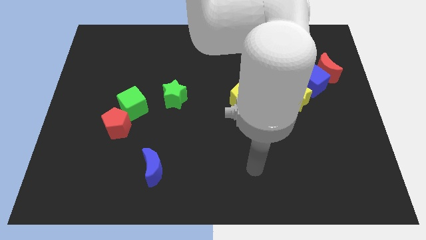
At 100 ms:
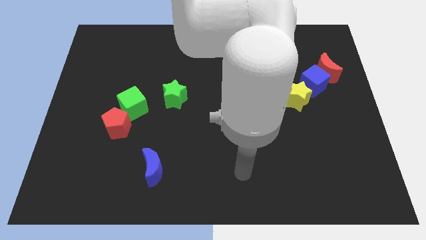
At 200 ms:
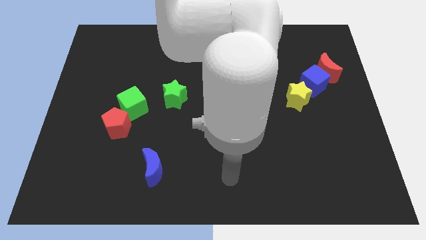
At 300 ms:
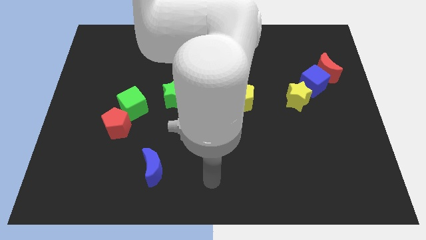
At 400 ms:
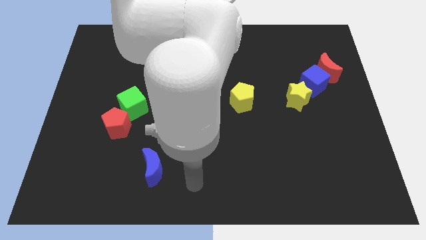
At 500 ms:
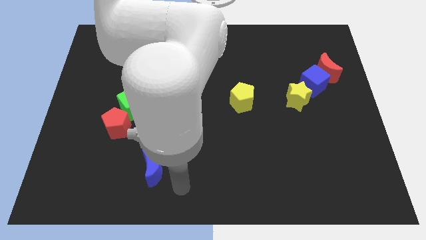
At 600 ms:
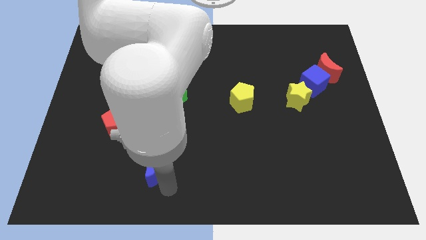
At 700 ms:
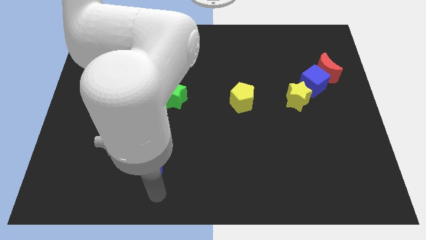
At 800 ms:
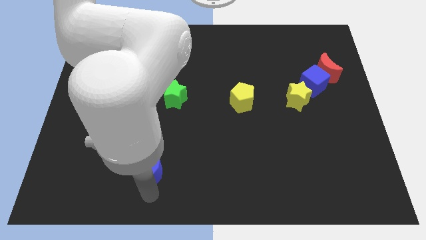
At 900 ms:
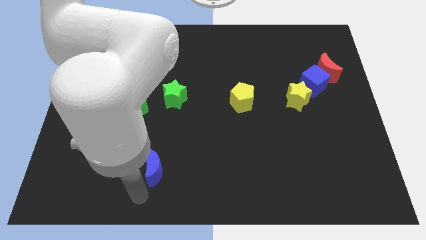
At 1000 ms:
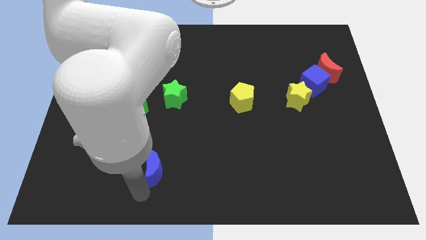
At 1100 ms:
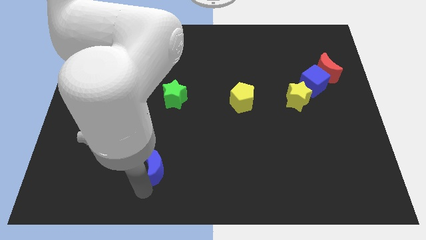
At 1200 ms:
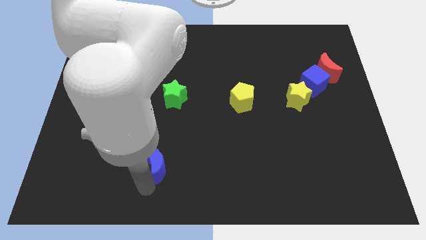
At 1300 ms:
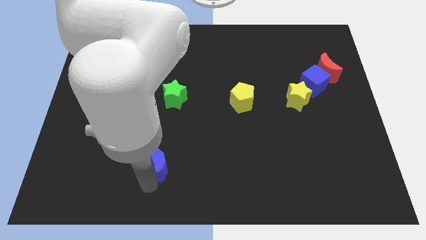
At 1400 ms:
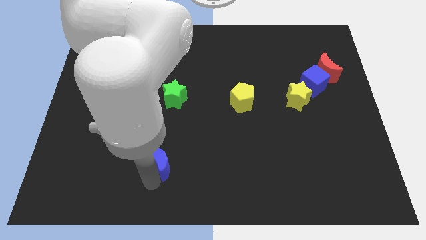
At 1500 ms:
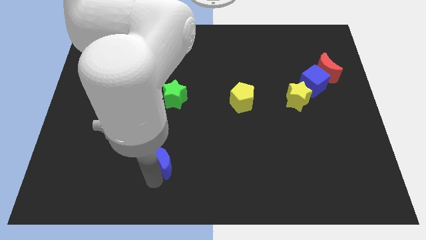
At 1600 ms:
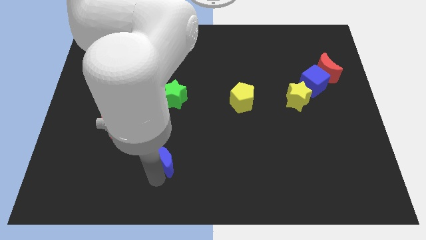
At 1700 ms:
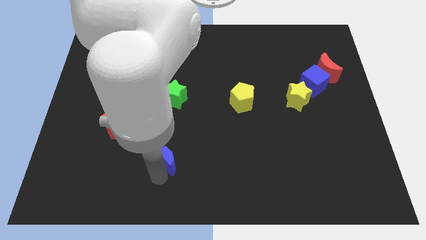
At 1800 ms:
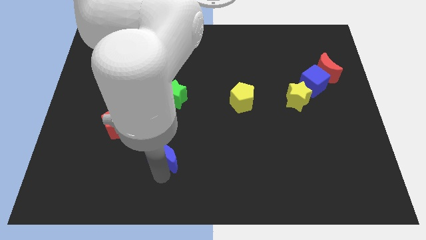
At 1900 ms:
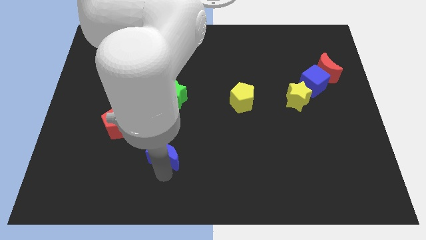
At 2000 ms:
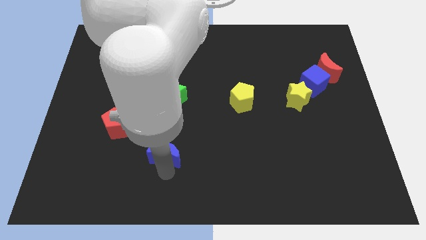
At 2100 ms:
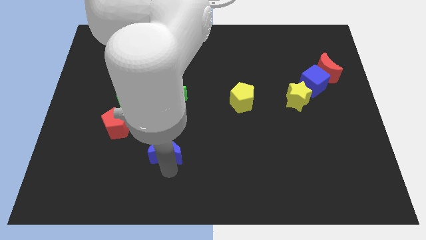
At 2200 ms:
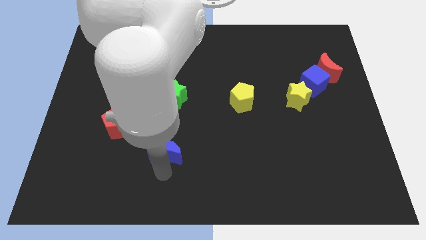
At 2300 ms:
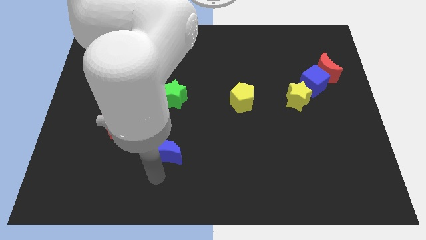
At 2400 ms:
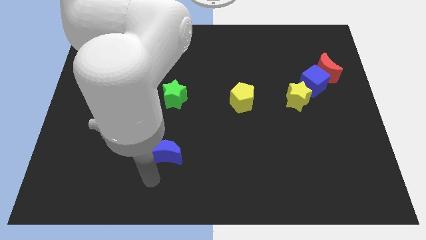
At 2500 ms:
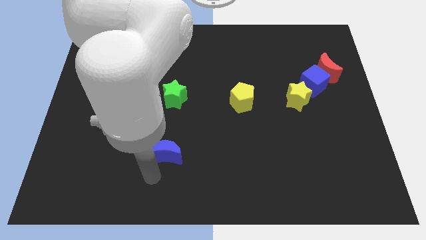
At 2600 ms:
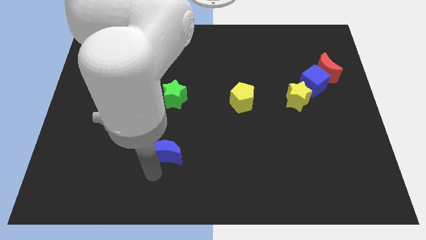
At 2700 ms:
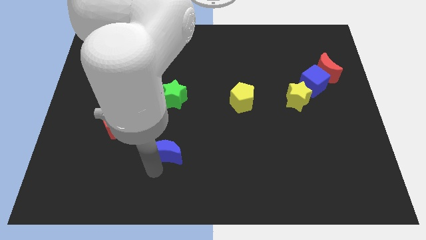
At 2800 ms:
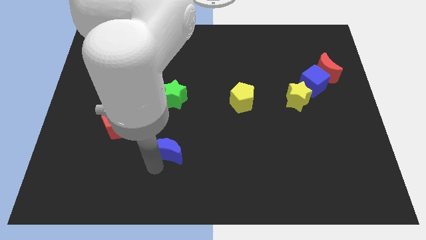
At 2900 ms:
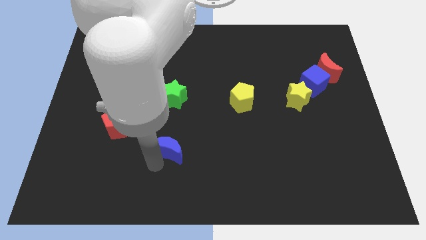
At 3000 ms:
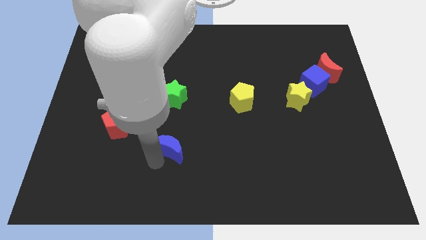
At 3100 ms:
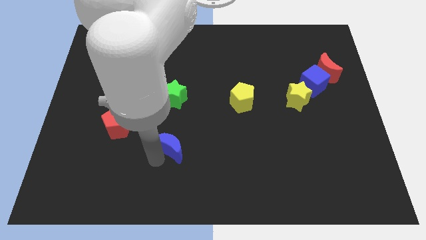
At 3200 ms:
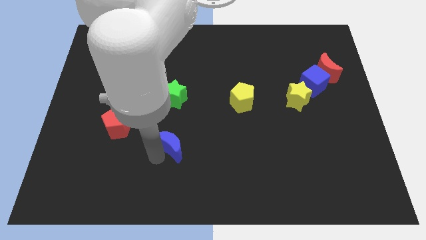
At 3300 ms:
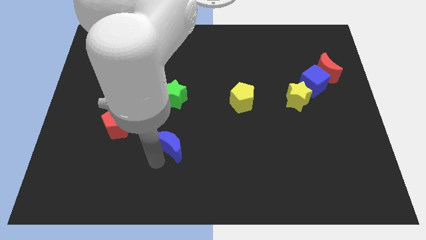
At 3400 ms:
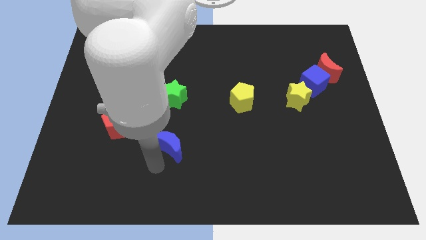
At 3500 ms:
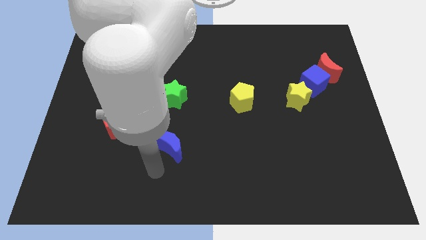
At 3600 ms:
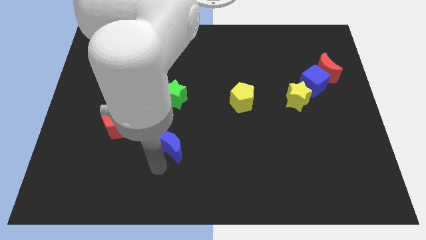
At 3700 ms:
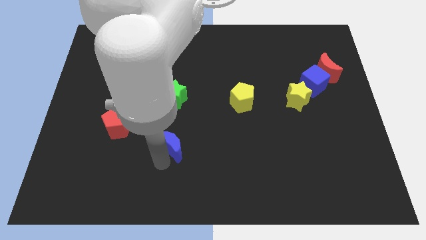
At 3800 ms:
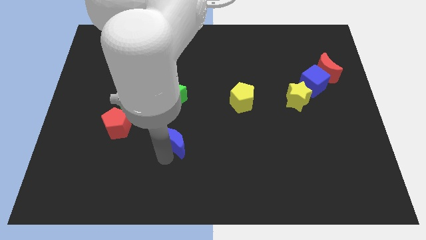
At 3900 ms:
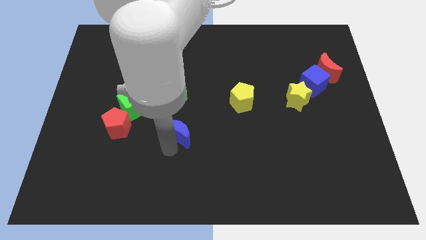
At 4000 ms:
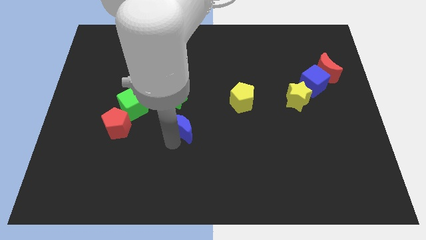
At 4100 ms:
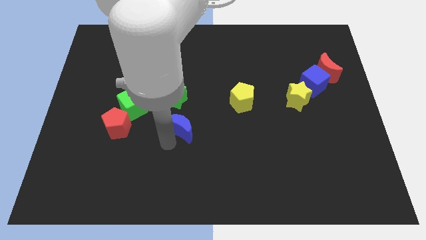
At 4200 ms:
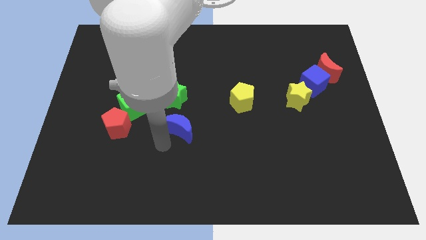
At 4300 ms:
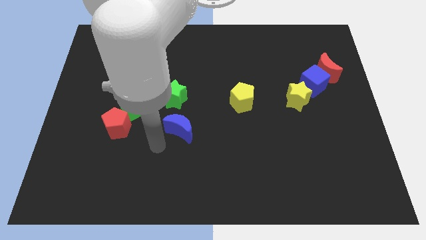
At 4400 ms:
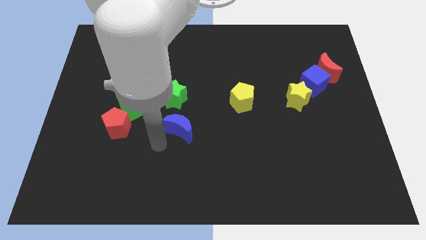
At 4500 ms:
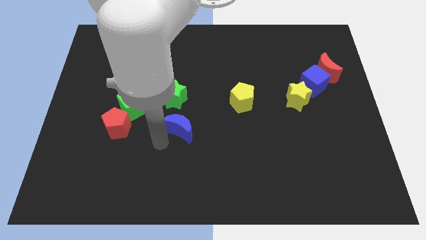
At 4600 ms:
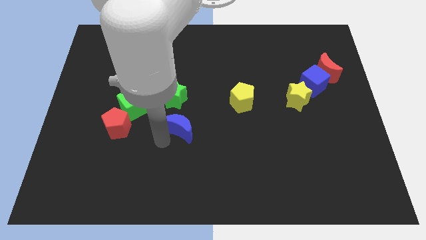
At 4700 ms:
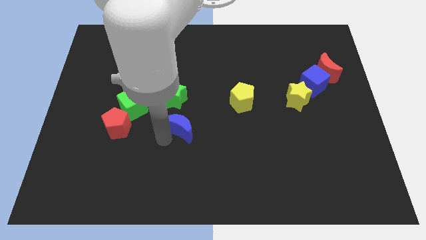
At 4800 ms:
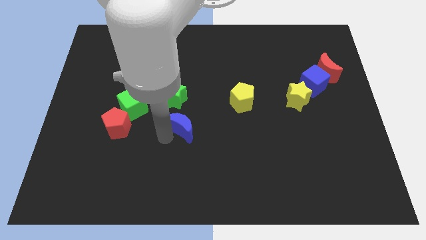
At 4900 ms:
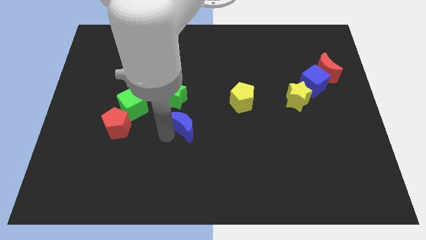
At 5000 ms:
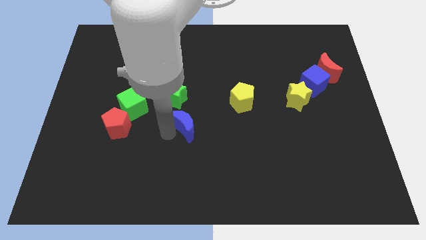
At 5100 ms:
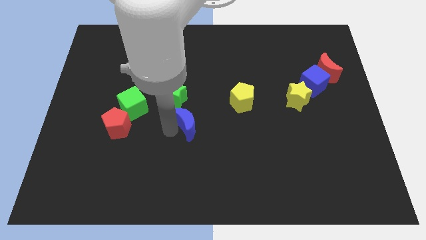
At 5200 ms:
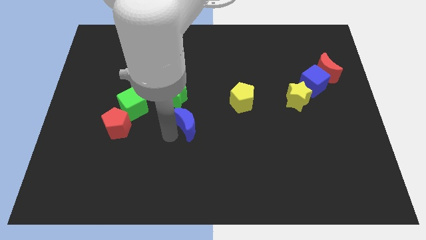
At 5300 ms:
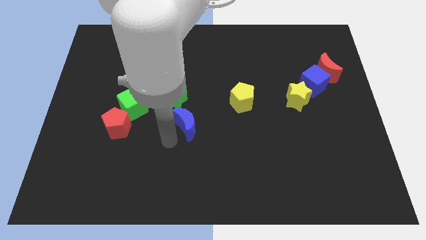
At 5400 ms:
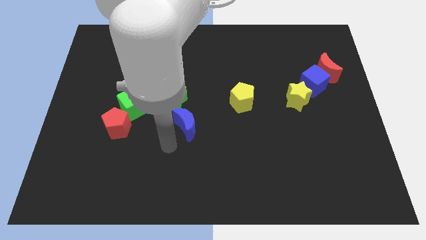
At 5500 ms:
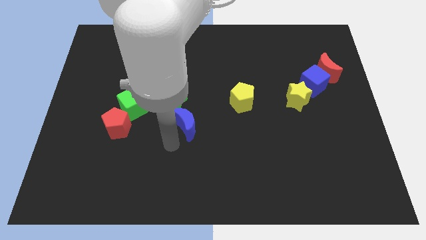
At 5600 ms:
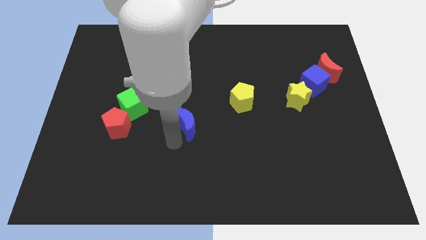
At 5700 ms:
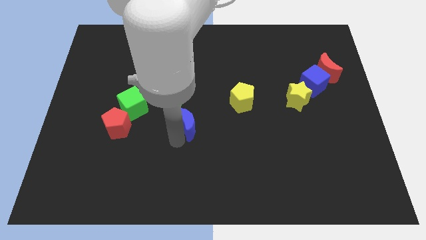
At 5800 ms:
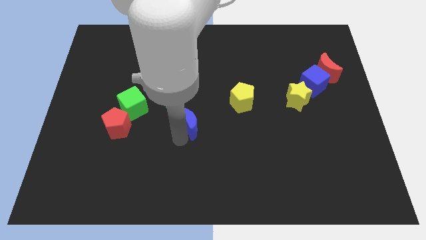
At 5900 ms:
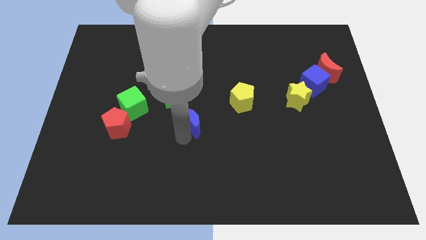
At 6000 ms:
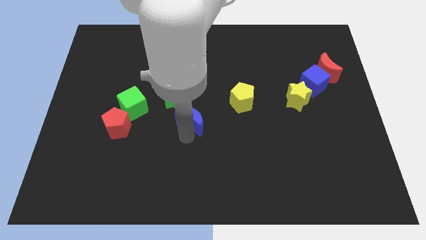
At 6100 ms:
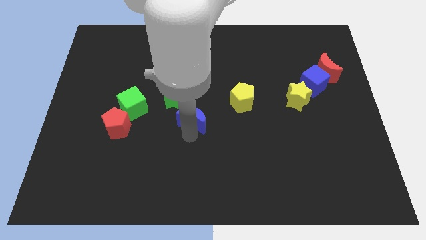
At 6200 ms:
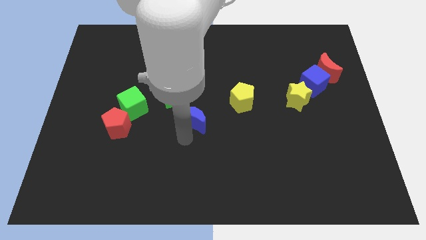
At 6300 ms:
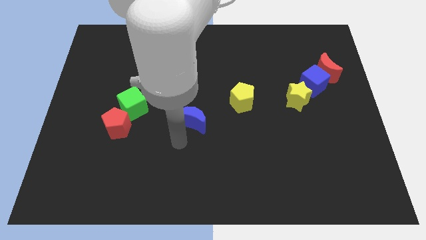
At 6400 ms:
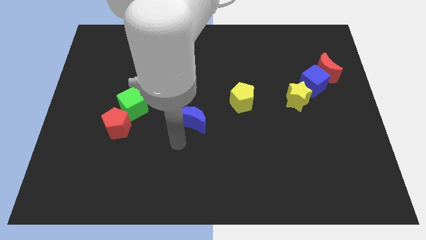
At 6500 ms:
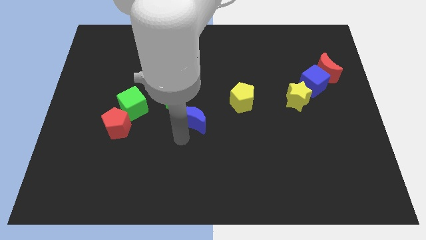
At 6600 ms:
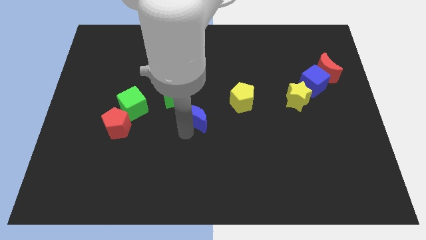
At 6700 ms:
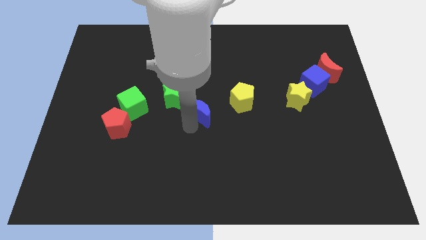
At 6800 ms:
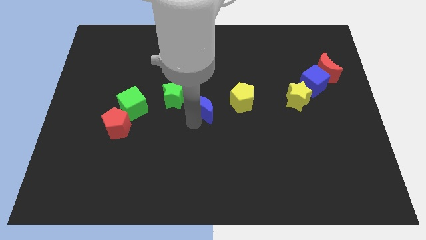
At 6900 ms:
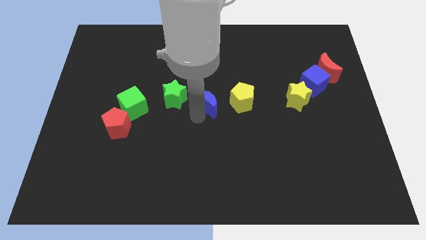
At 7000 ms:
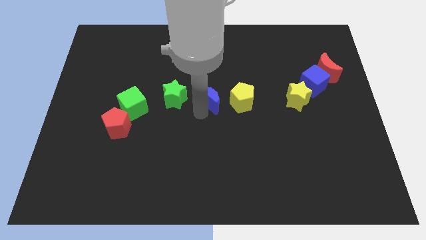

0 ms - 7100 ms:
push the blue moon up and to the right diagonally

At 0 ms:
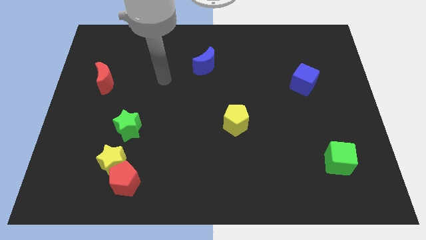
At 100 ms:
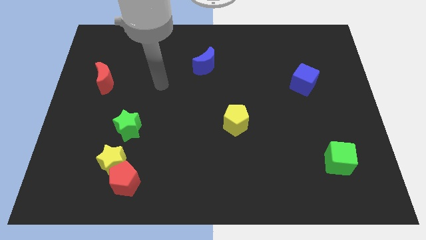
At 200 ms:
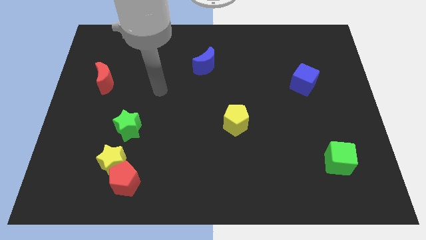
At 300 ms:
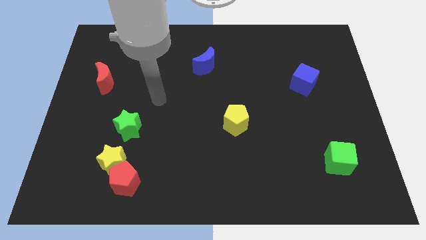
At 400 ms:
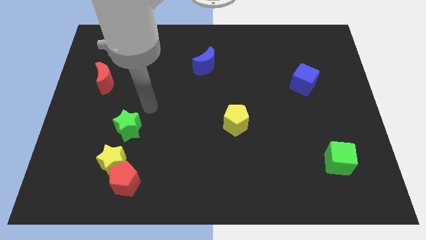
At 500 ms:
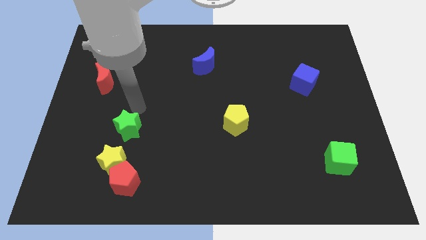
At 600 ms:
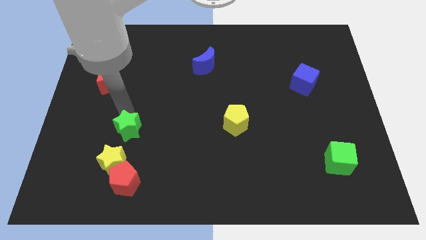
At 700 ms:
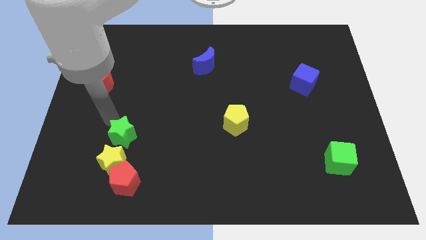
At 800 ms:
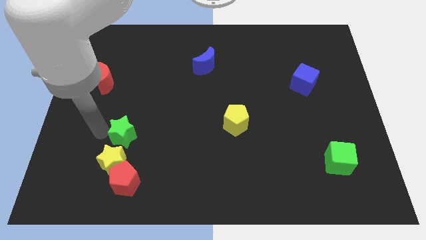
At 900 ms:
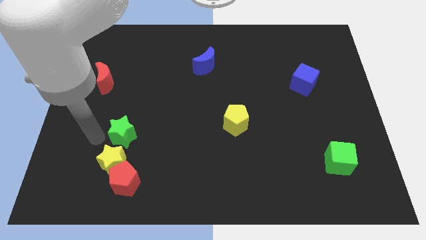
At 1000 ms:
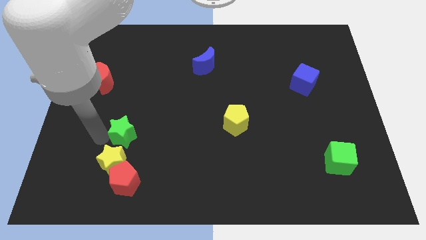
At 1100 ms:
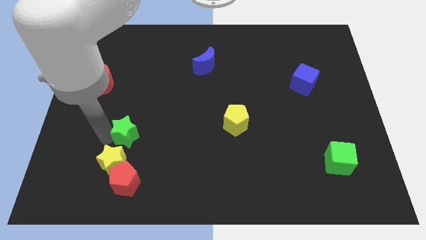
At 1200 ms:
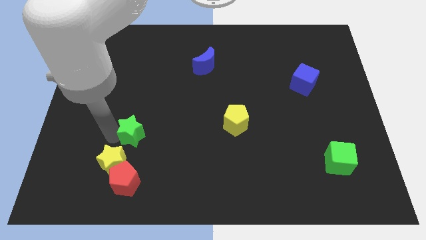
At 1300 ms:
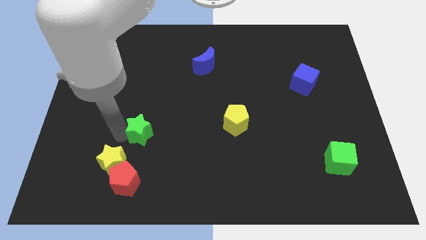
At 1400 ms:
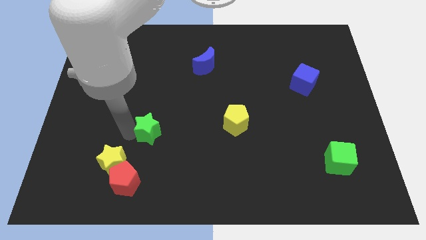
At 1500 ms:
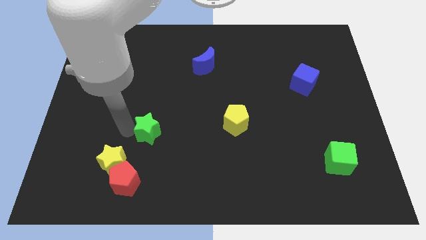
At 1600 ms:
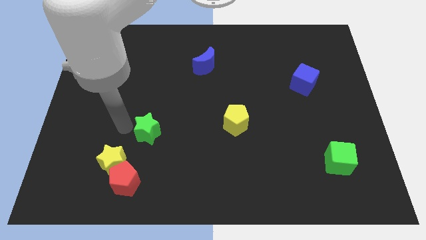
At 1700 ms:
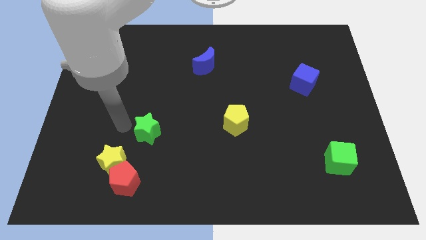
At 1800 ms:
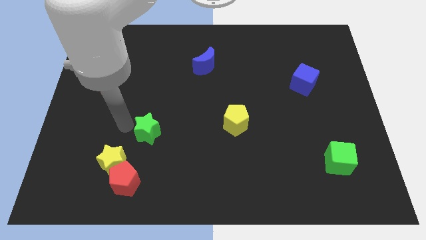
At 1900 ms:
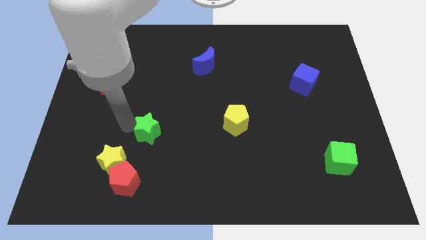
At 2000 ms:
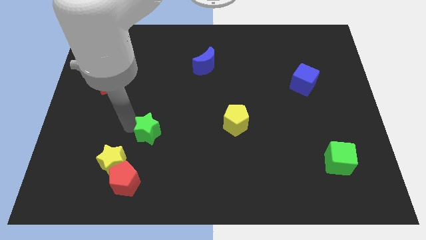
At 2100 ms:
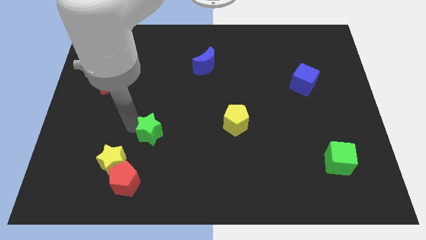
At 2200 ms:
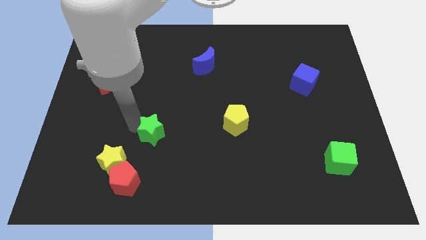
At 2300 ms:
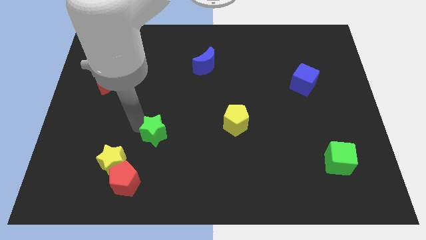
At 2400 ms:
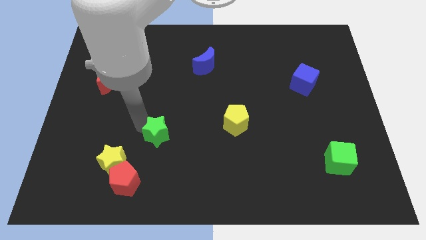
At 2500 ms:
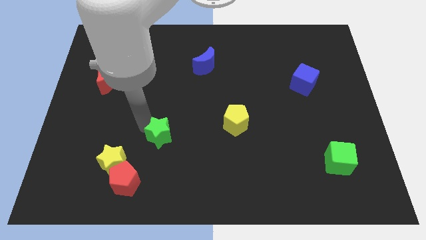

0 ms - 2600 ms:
slightly slide the green star to the right
